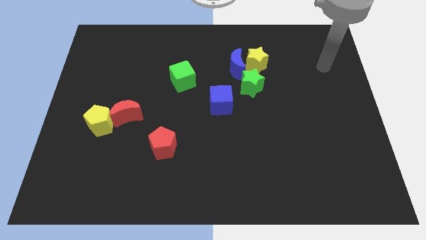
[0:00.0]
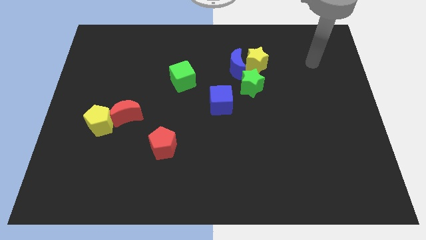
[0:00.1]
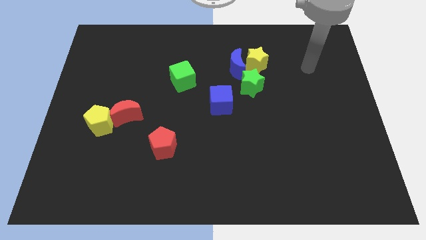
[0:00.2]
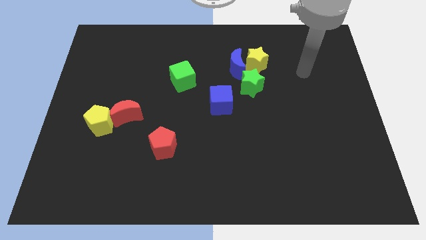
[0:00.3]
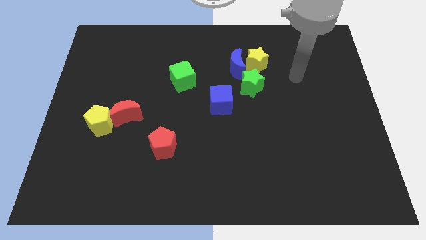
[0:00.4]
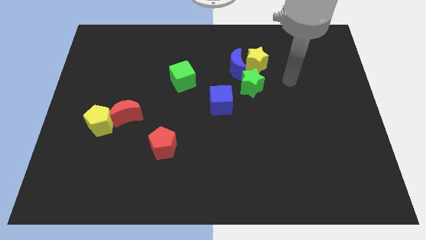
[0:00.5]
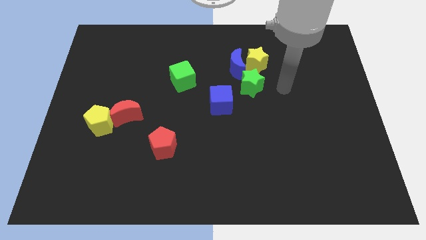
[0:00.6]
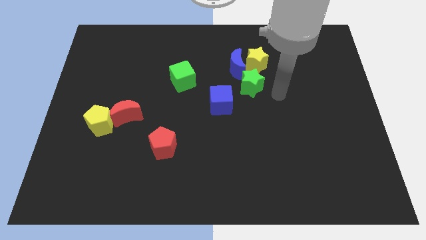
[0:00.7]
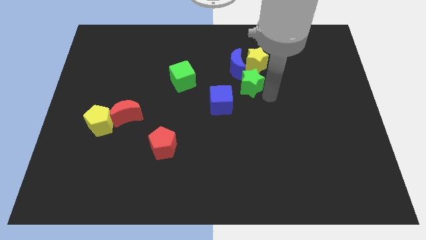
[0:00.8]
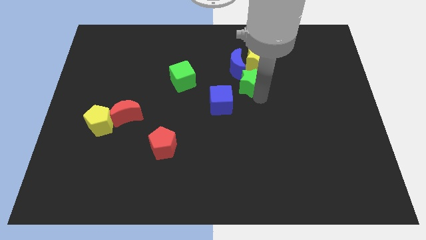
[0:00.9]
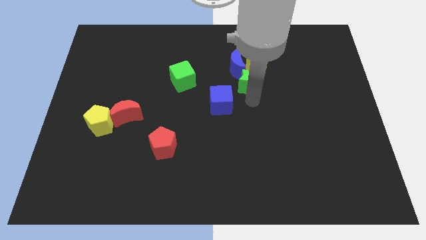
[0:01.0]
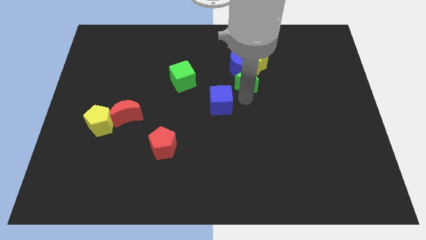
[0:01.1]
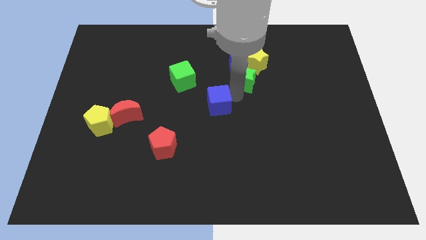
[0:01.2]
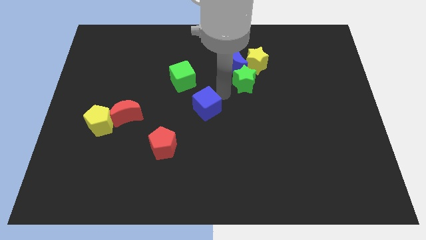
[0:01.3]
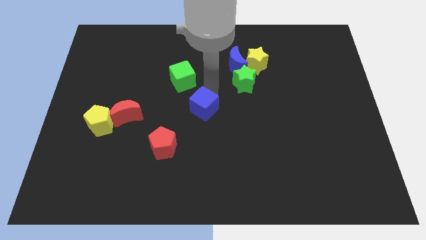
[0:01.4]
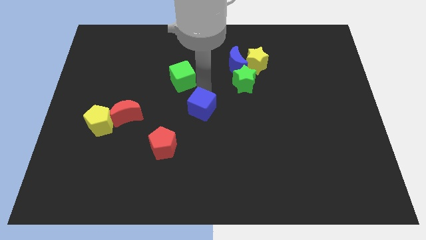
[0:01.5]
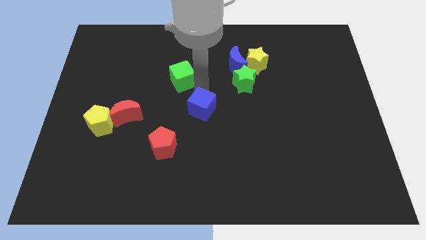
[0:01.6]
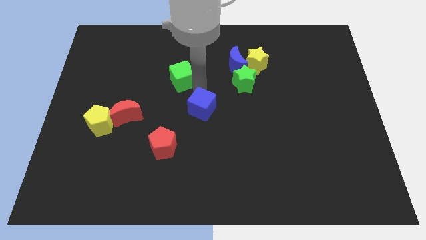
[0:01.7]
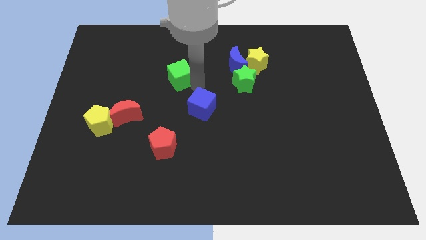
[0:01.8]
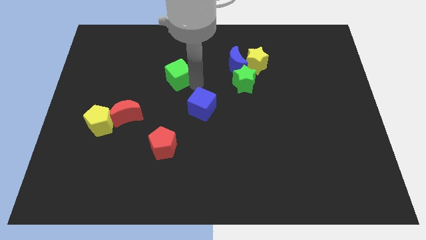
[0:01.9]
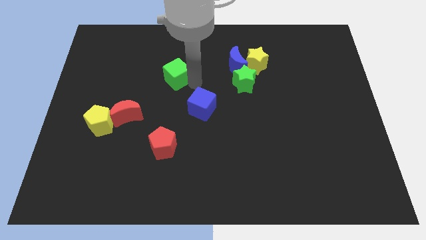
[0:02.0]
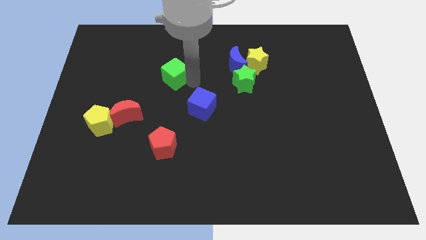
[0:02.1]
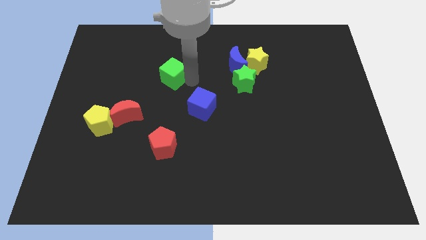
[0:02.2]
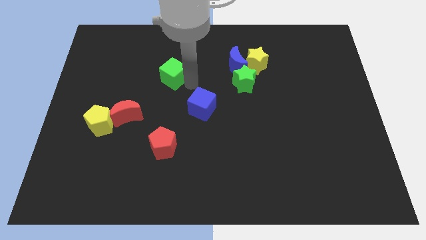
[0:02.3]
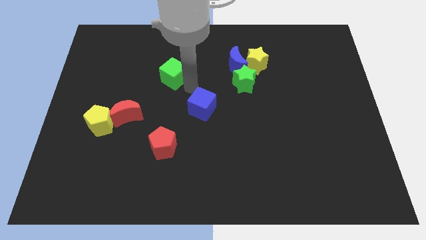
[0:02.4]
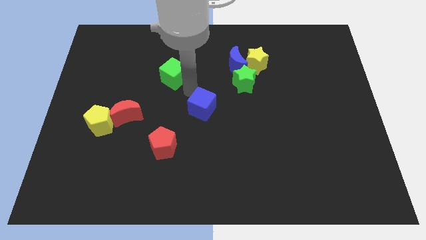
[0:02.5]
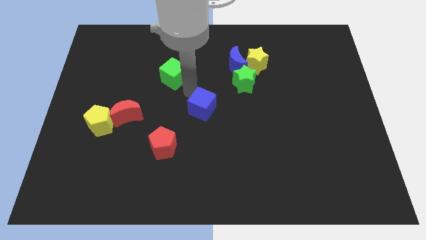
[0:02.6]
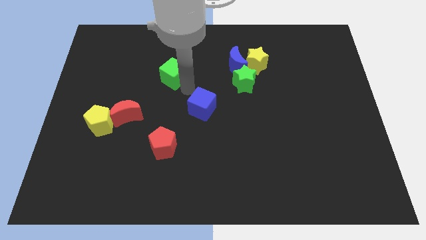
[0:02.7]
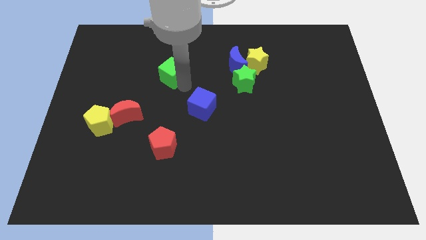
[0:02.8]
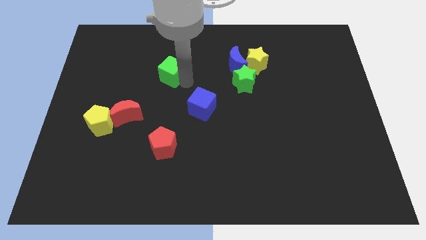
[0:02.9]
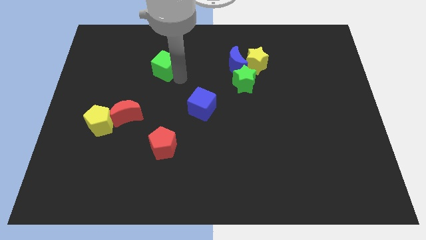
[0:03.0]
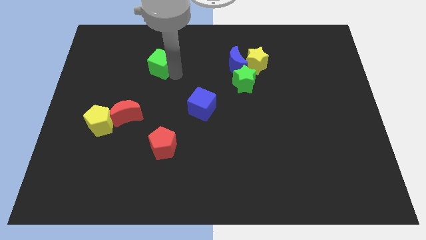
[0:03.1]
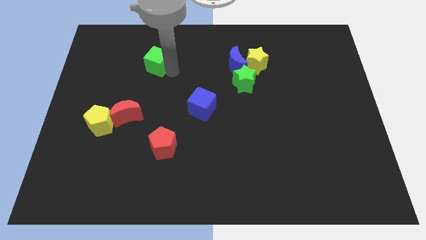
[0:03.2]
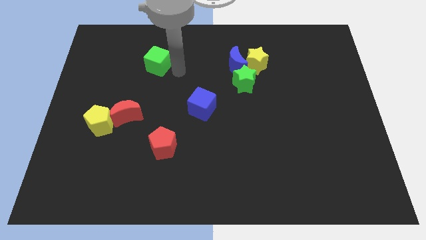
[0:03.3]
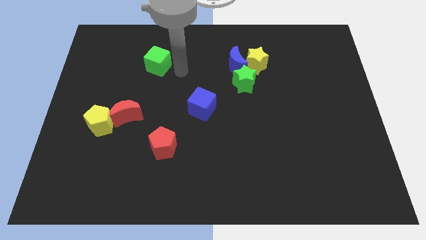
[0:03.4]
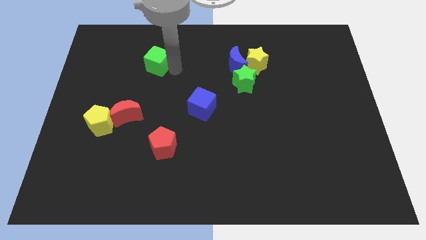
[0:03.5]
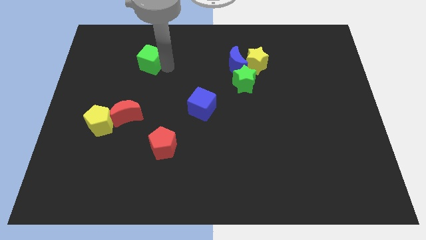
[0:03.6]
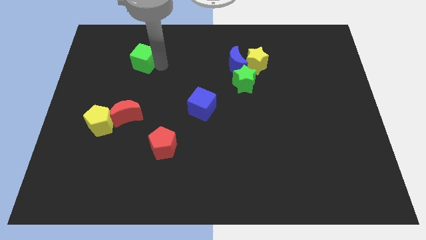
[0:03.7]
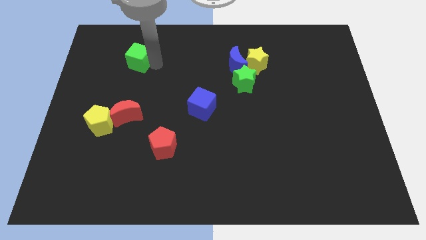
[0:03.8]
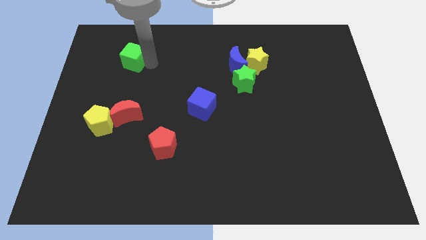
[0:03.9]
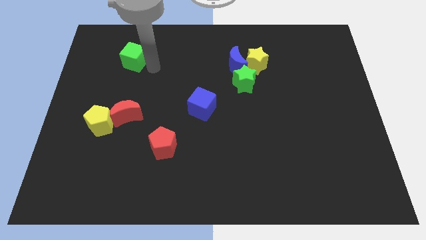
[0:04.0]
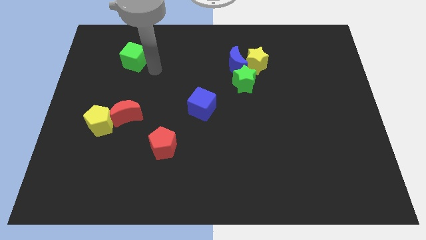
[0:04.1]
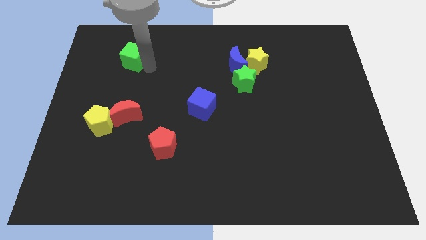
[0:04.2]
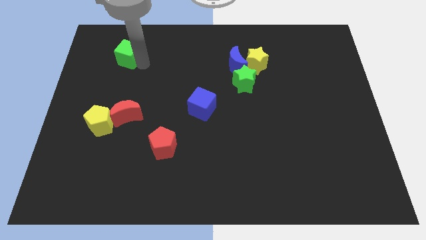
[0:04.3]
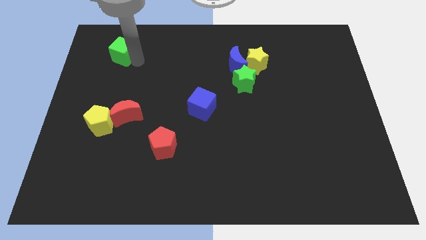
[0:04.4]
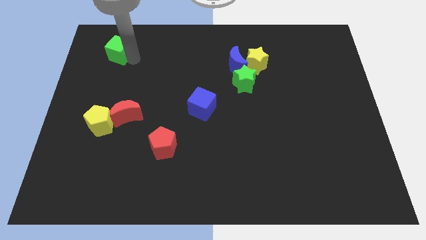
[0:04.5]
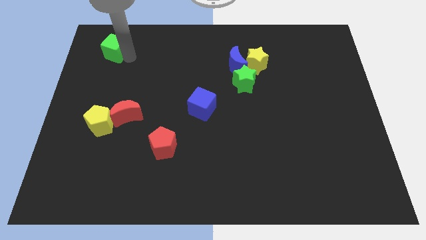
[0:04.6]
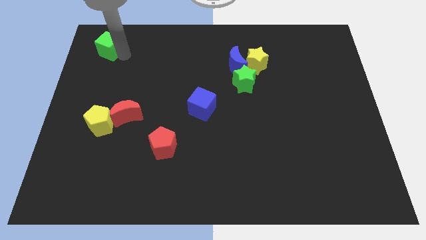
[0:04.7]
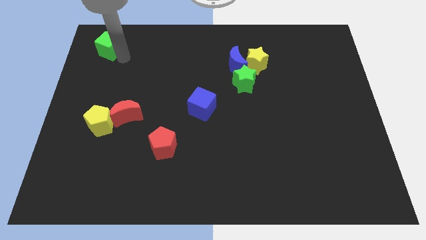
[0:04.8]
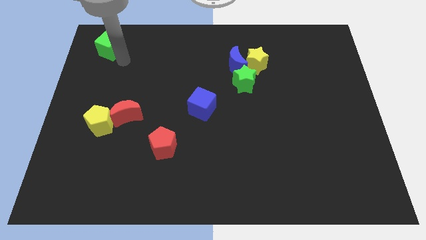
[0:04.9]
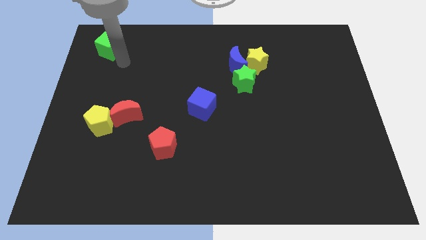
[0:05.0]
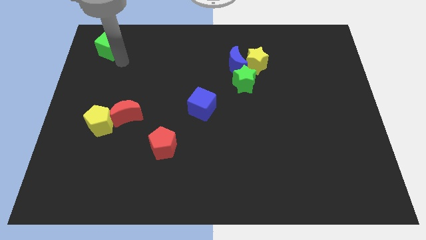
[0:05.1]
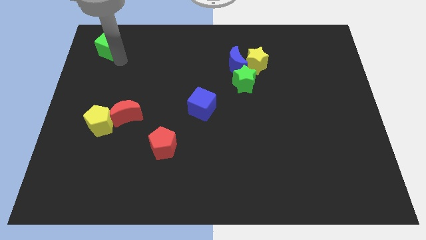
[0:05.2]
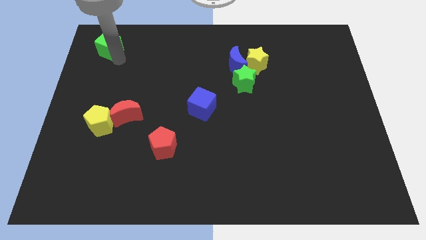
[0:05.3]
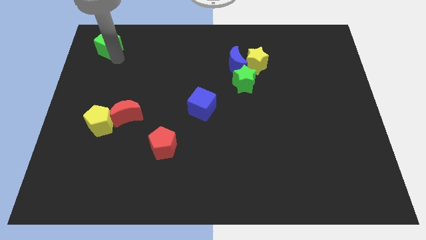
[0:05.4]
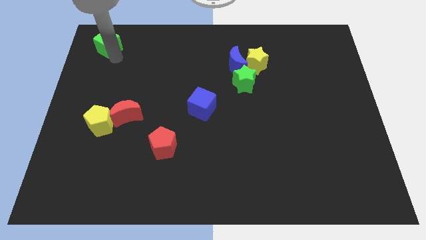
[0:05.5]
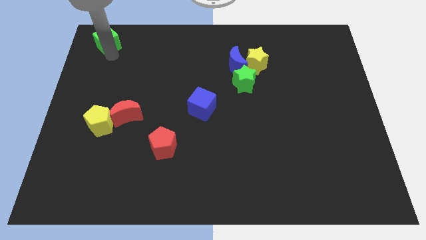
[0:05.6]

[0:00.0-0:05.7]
slide the green cube to the top left
